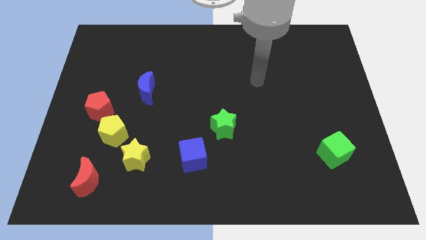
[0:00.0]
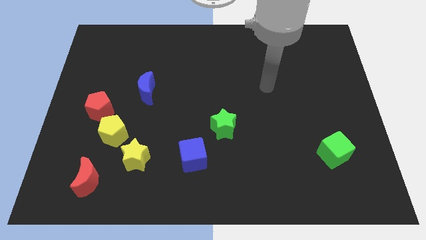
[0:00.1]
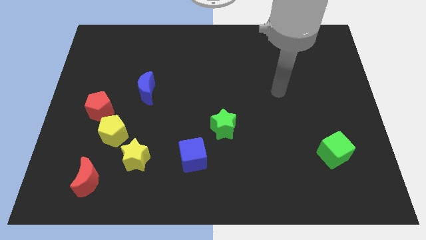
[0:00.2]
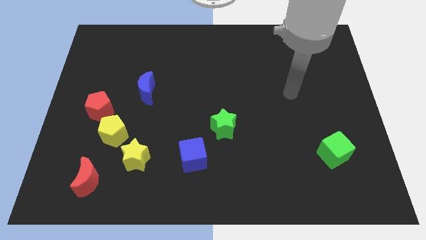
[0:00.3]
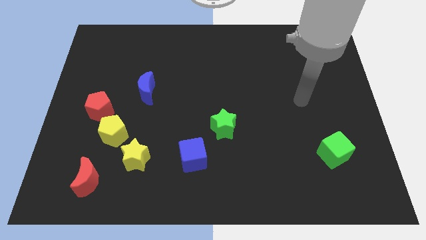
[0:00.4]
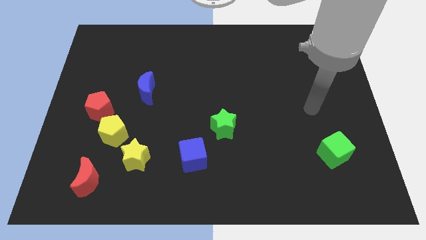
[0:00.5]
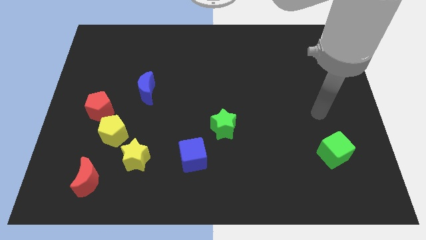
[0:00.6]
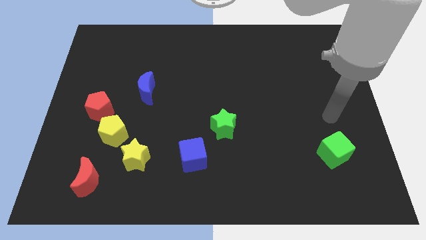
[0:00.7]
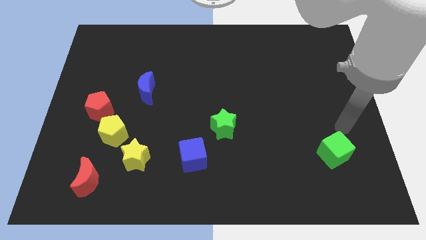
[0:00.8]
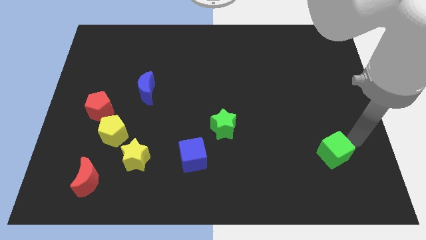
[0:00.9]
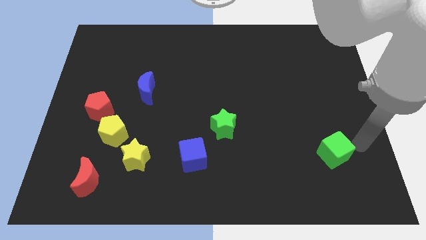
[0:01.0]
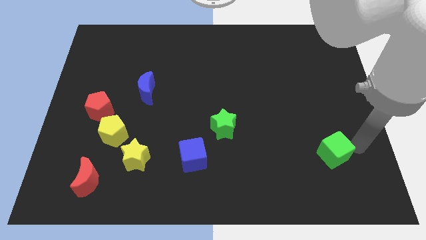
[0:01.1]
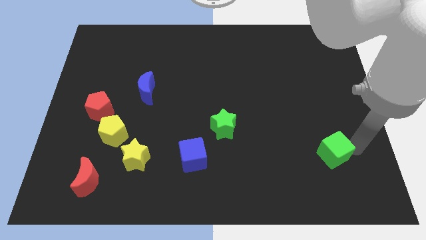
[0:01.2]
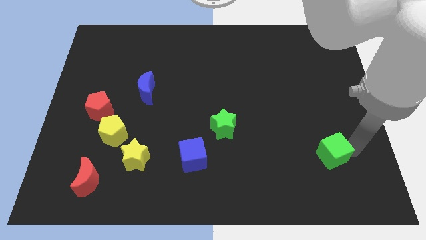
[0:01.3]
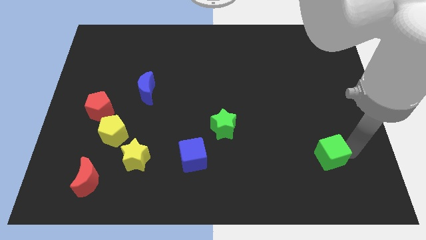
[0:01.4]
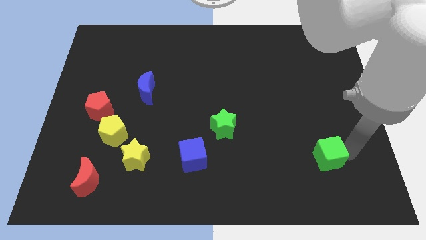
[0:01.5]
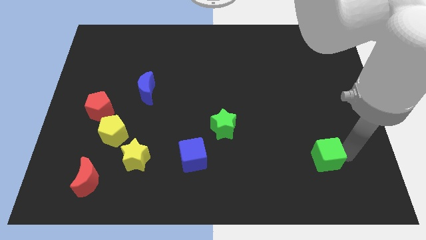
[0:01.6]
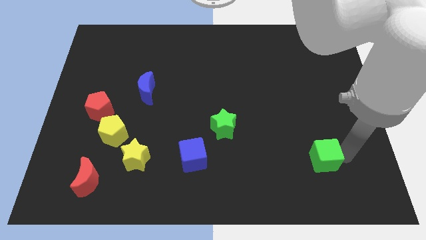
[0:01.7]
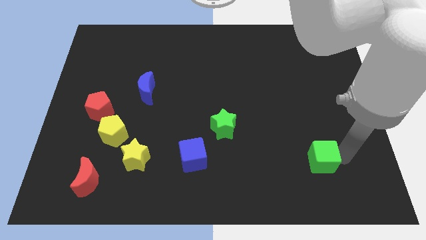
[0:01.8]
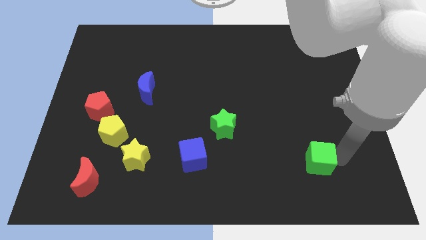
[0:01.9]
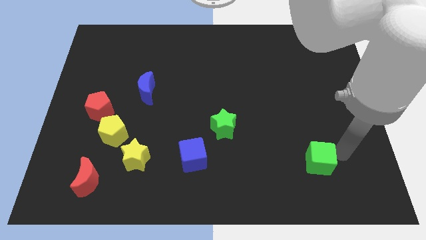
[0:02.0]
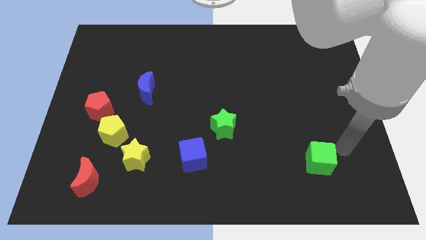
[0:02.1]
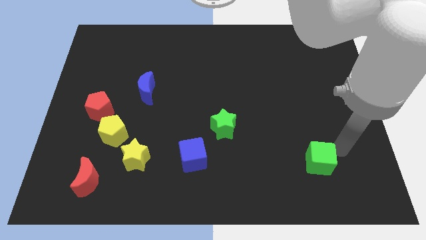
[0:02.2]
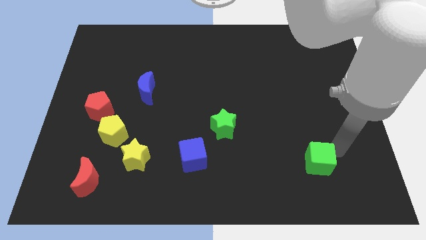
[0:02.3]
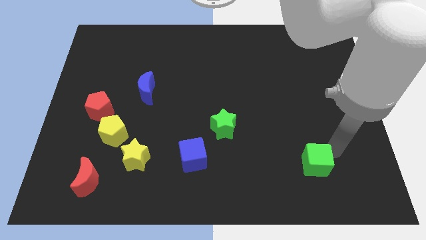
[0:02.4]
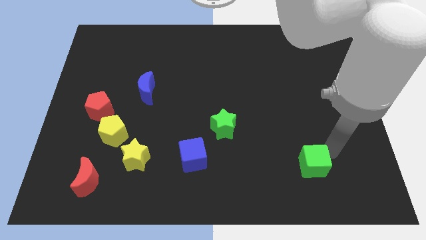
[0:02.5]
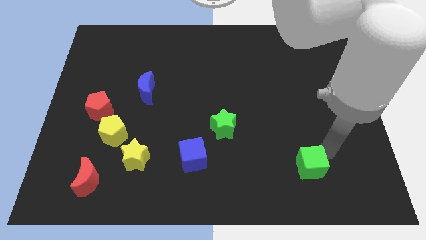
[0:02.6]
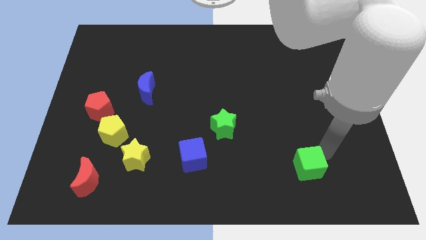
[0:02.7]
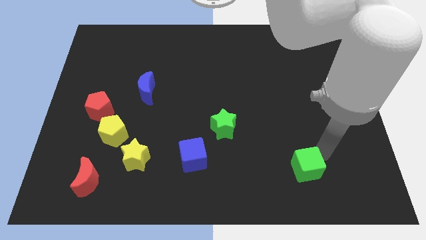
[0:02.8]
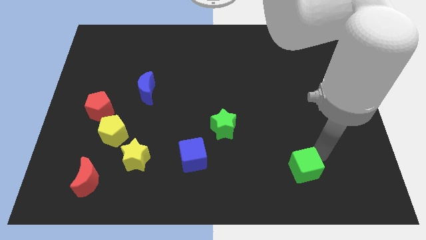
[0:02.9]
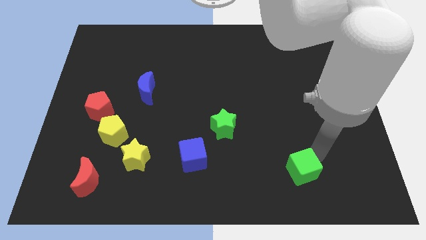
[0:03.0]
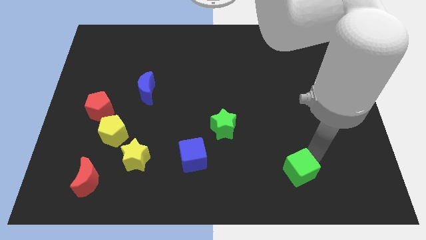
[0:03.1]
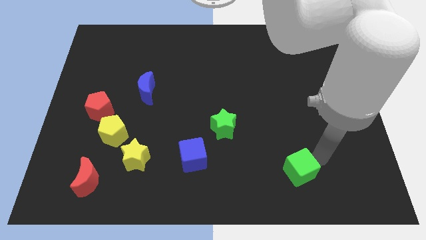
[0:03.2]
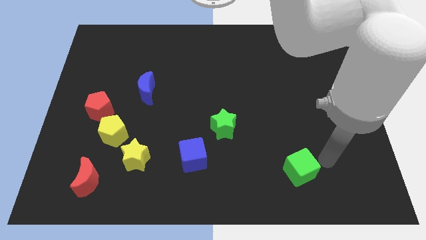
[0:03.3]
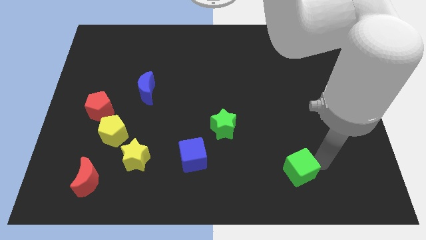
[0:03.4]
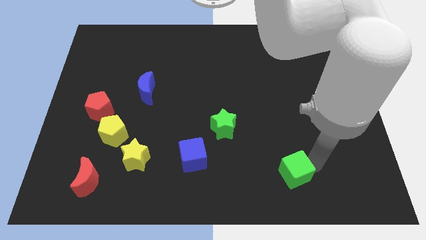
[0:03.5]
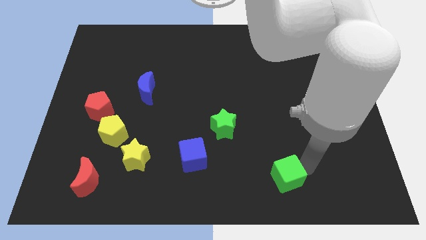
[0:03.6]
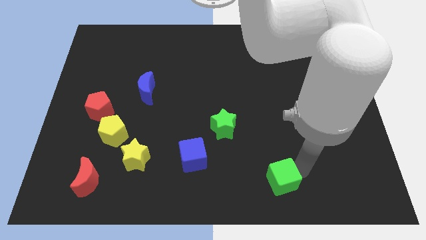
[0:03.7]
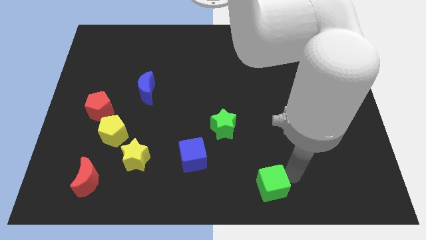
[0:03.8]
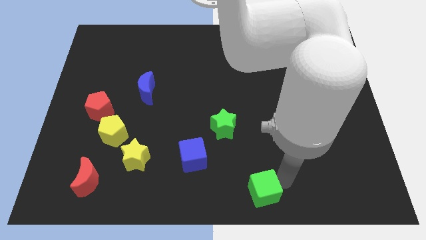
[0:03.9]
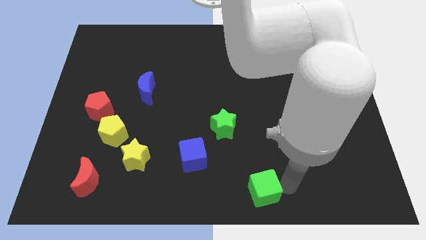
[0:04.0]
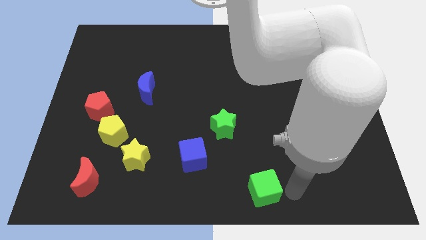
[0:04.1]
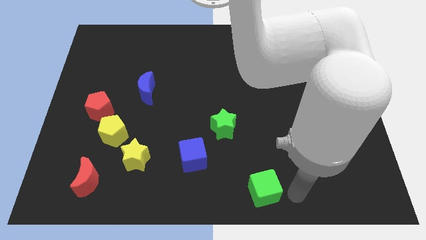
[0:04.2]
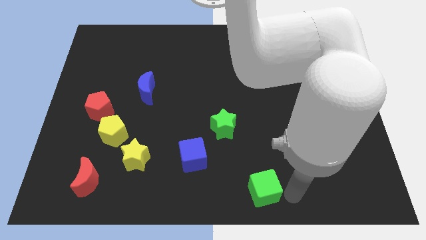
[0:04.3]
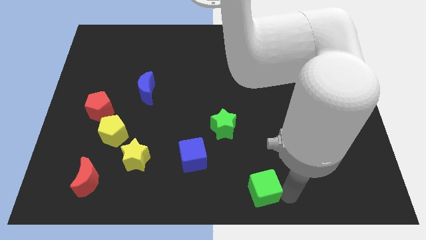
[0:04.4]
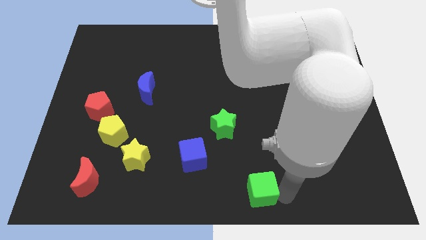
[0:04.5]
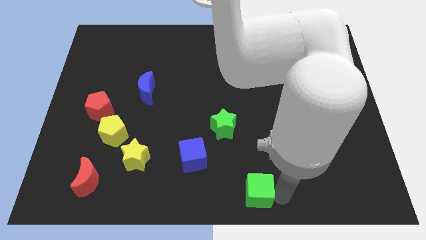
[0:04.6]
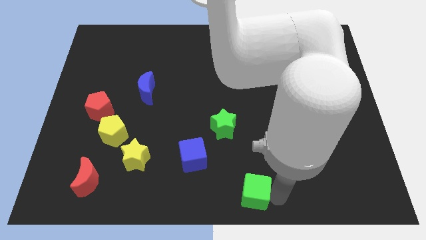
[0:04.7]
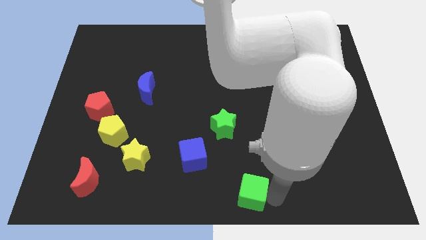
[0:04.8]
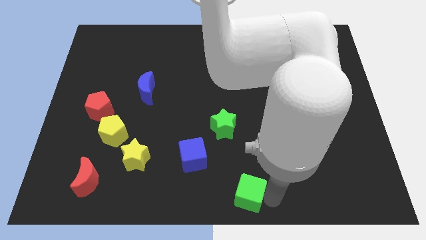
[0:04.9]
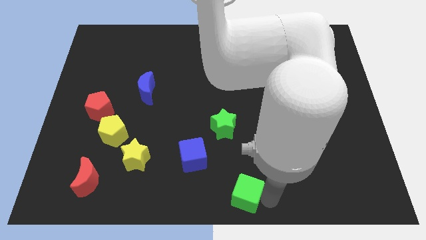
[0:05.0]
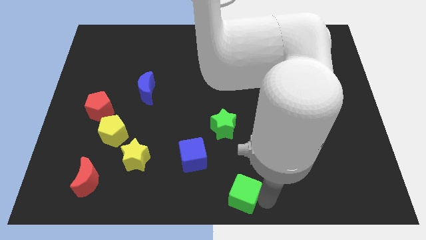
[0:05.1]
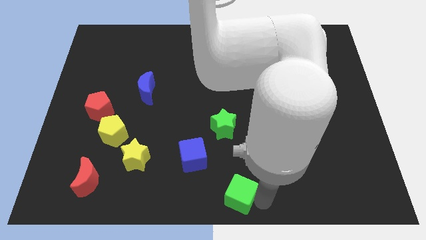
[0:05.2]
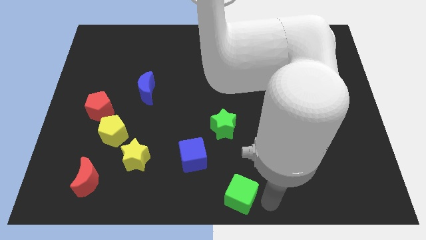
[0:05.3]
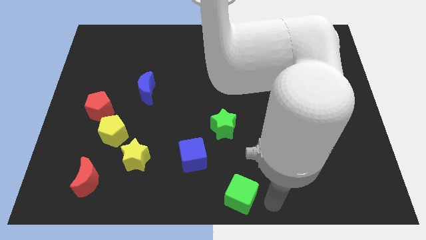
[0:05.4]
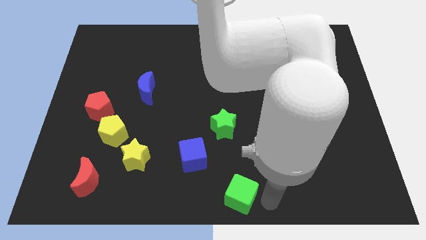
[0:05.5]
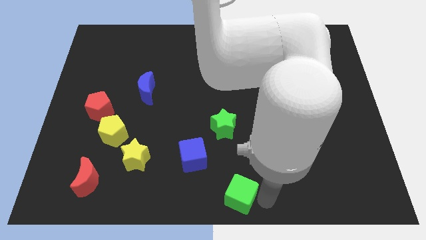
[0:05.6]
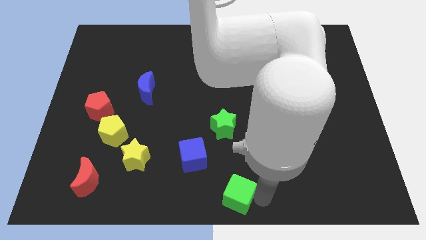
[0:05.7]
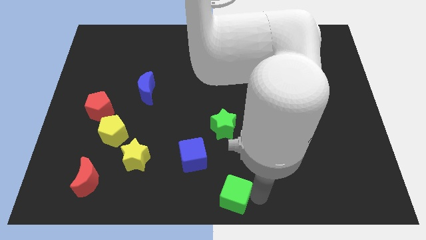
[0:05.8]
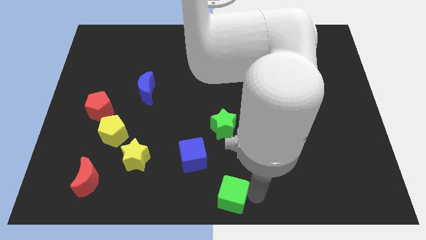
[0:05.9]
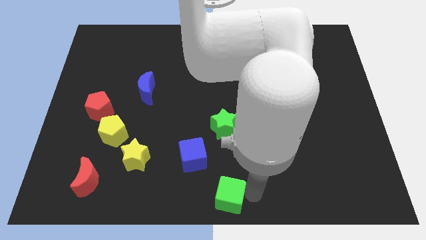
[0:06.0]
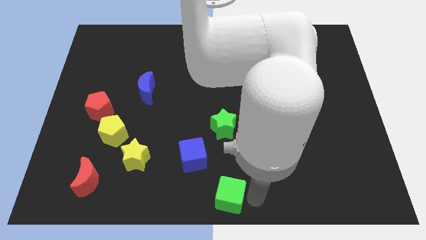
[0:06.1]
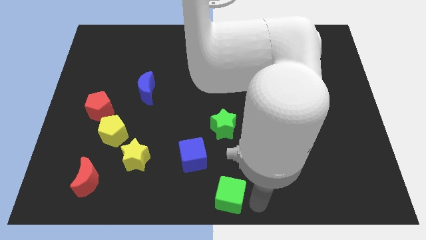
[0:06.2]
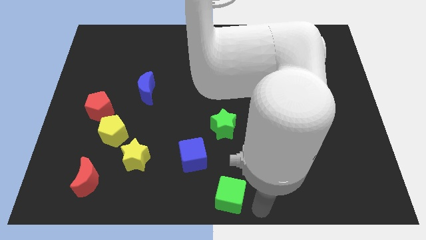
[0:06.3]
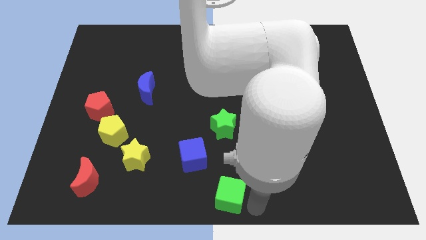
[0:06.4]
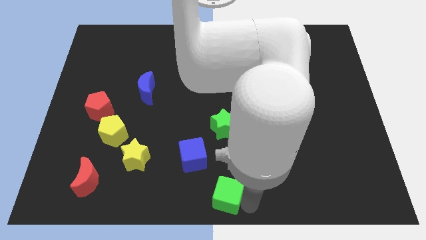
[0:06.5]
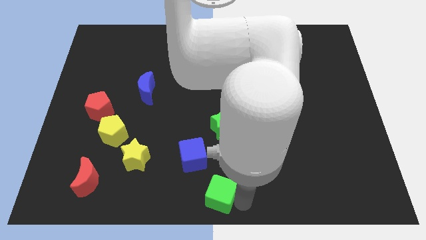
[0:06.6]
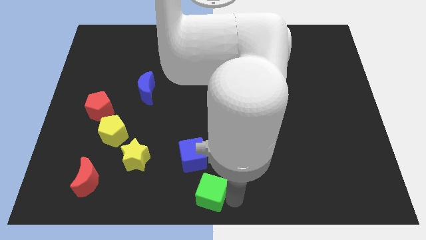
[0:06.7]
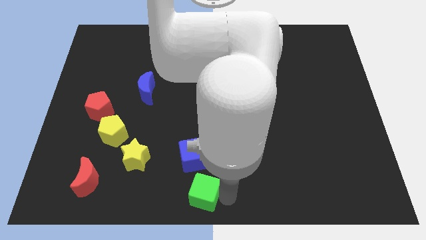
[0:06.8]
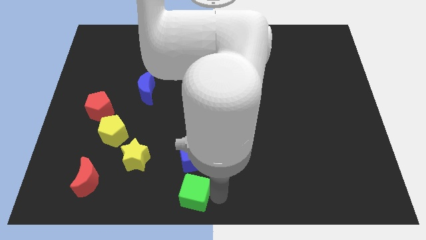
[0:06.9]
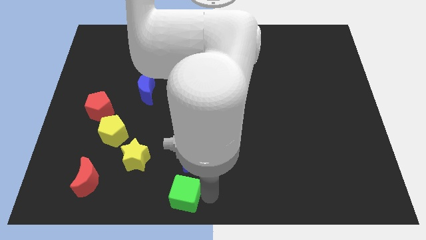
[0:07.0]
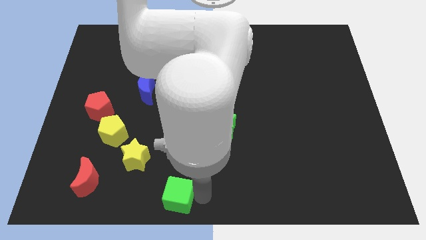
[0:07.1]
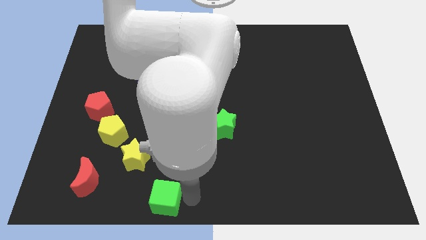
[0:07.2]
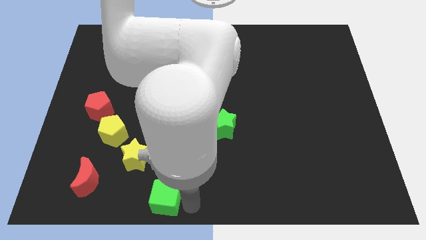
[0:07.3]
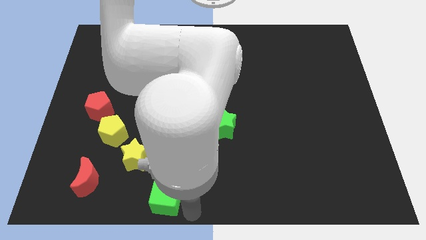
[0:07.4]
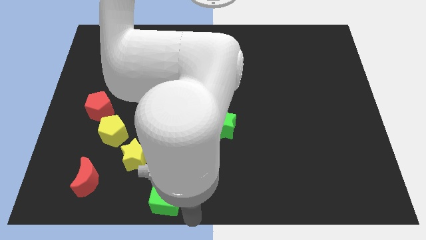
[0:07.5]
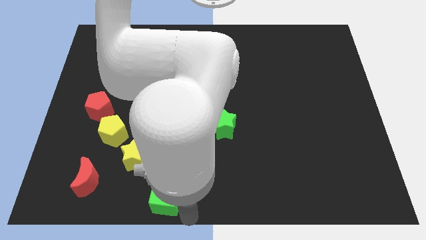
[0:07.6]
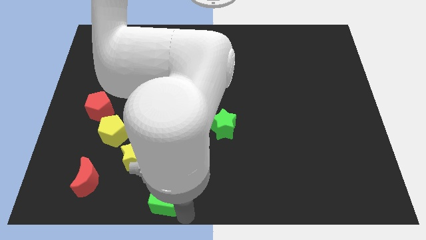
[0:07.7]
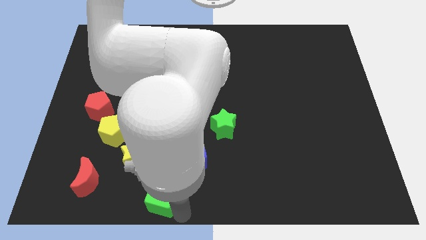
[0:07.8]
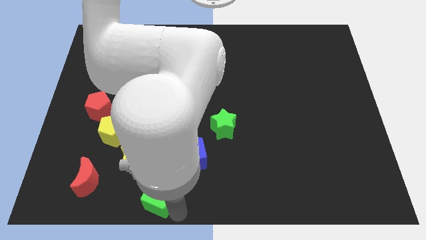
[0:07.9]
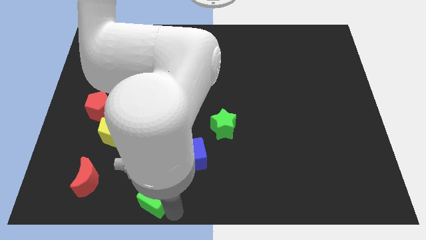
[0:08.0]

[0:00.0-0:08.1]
move the green cube right of the red moon
